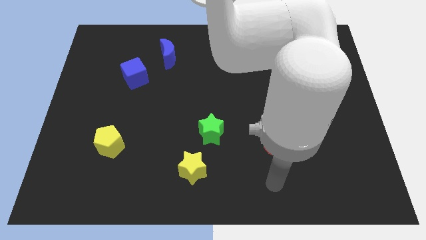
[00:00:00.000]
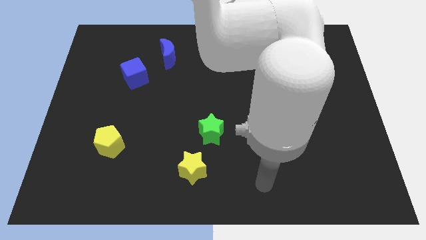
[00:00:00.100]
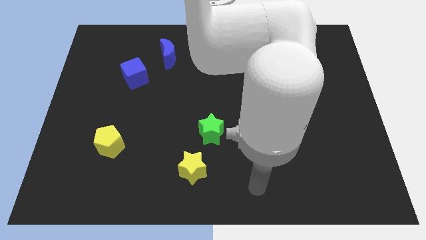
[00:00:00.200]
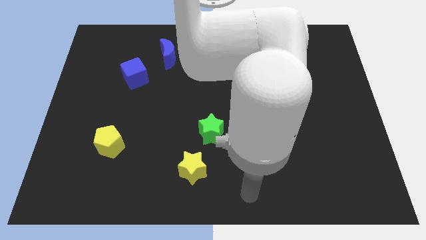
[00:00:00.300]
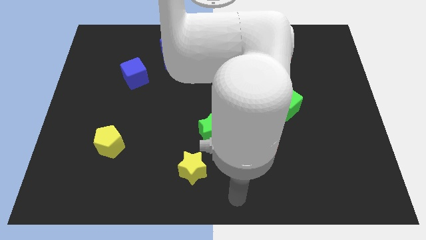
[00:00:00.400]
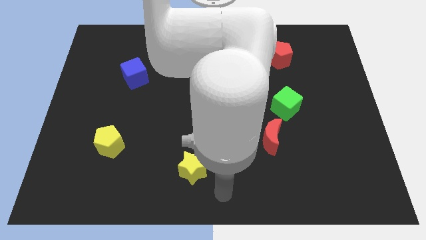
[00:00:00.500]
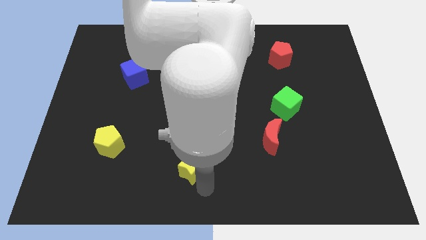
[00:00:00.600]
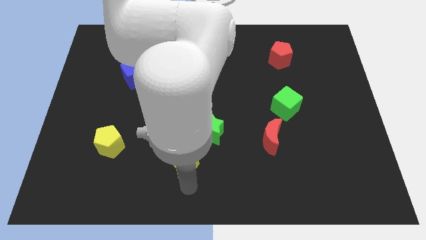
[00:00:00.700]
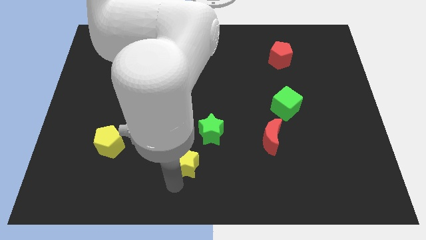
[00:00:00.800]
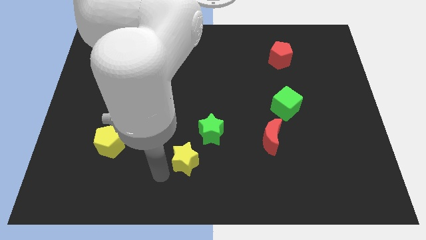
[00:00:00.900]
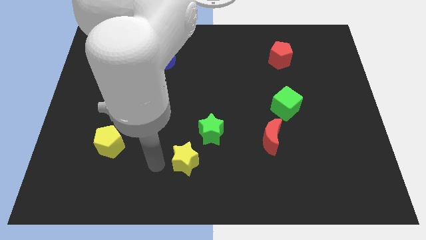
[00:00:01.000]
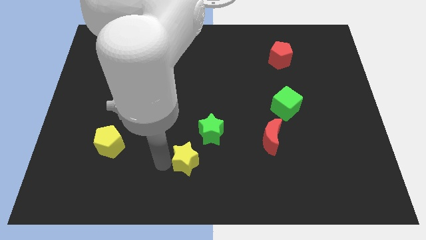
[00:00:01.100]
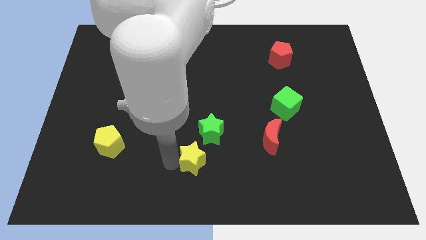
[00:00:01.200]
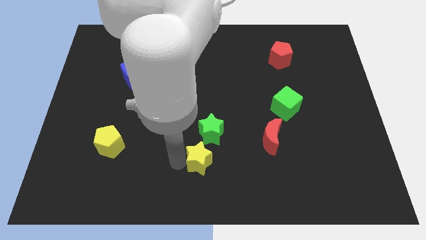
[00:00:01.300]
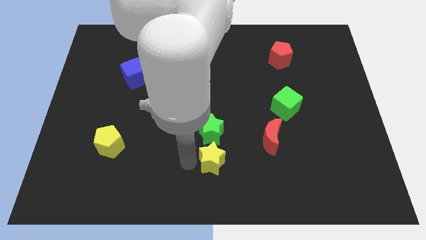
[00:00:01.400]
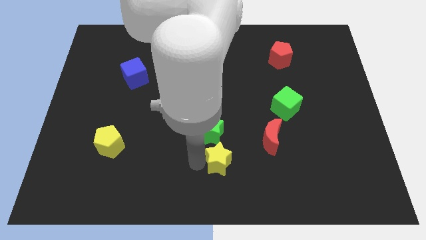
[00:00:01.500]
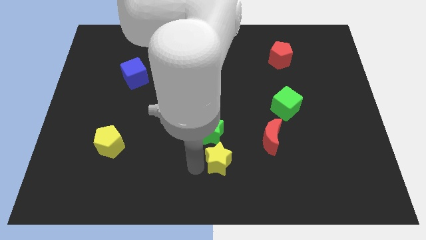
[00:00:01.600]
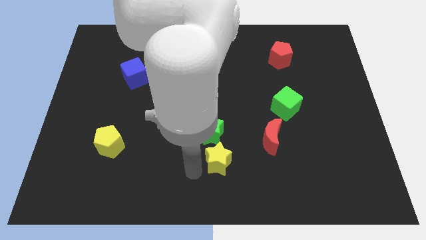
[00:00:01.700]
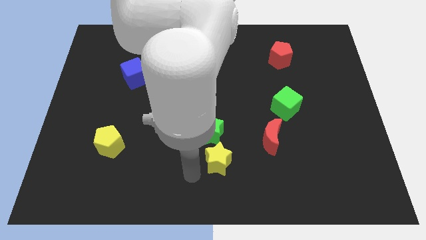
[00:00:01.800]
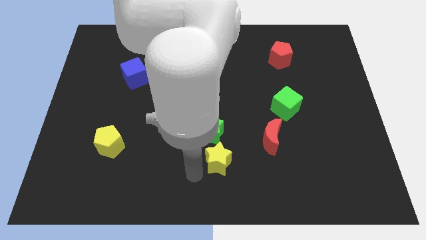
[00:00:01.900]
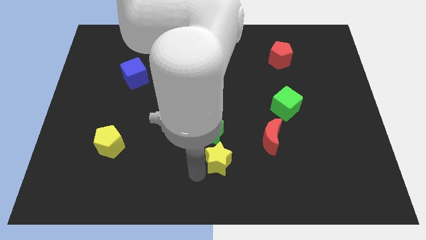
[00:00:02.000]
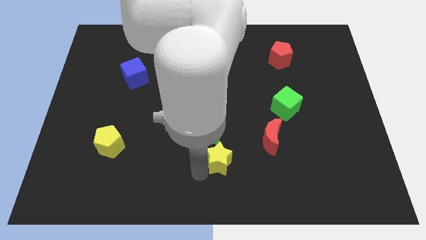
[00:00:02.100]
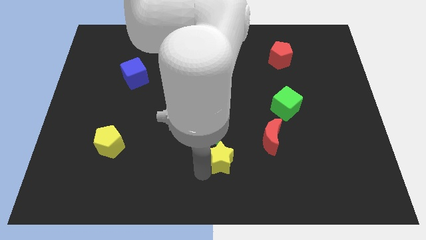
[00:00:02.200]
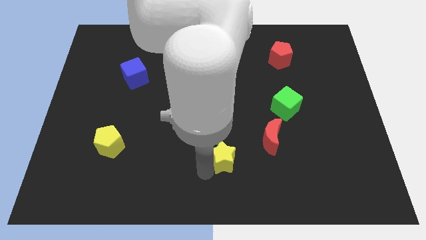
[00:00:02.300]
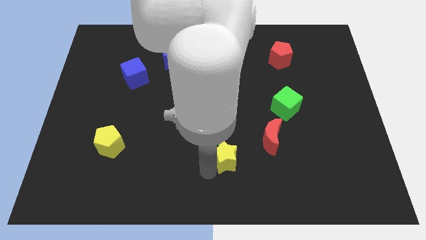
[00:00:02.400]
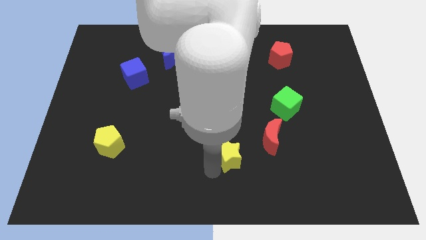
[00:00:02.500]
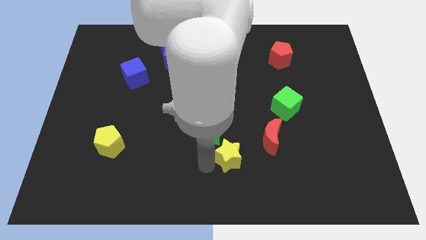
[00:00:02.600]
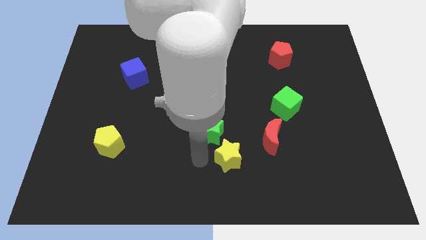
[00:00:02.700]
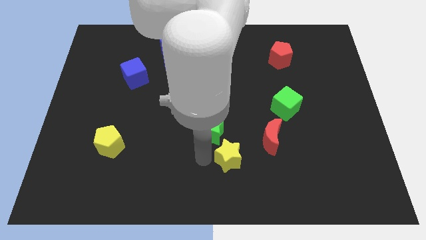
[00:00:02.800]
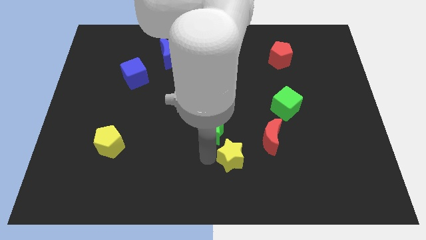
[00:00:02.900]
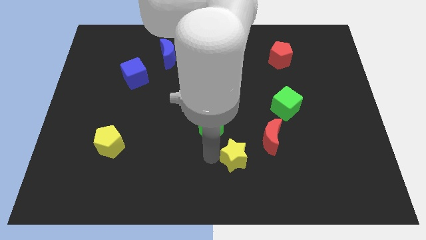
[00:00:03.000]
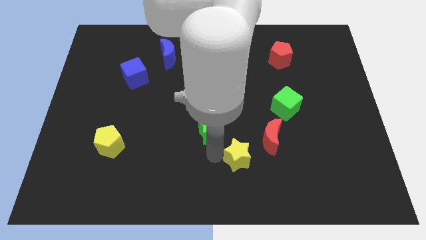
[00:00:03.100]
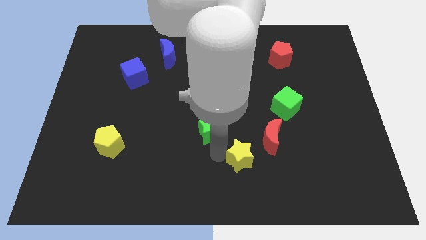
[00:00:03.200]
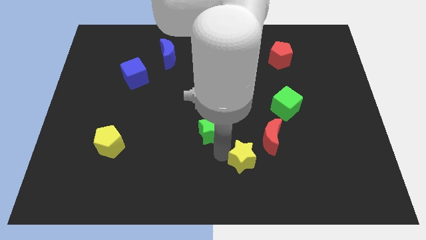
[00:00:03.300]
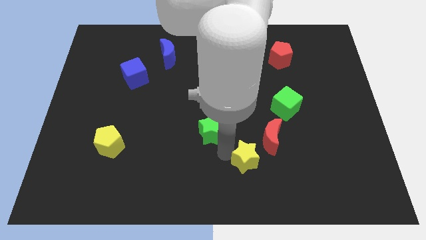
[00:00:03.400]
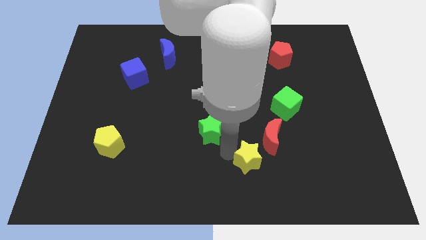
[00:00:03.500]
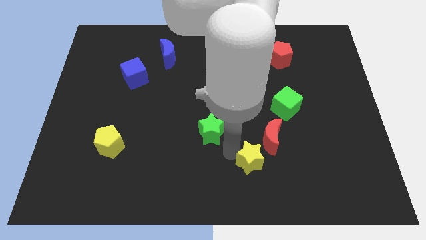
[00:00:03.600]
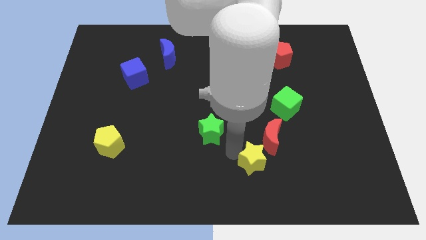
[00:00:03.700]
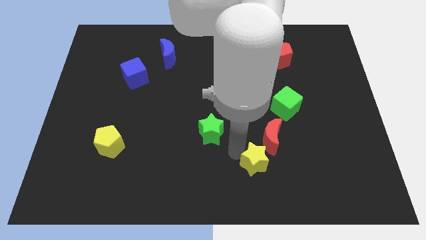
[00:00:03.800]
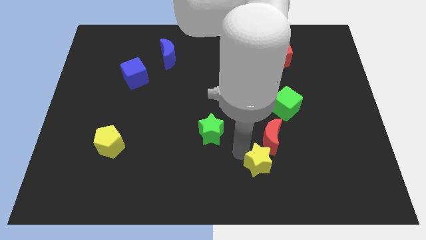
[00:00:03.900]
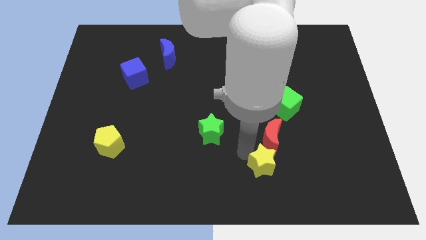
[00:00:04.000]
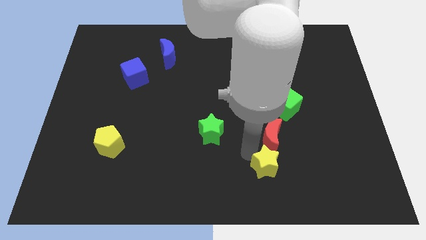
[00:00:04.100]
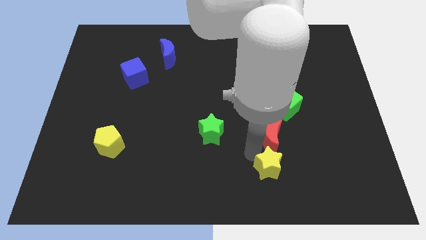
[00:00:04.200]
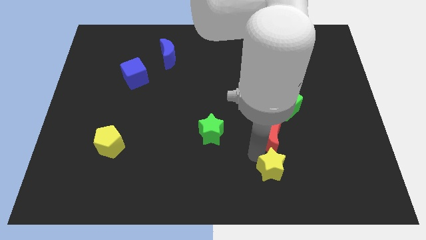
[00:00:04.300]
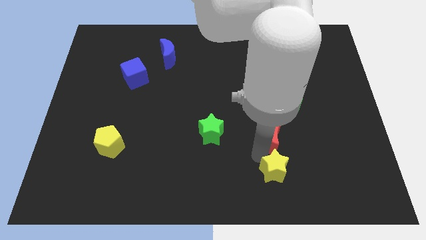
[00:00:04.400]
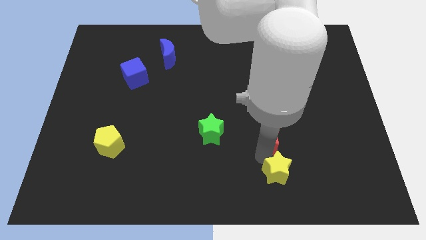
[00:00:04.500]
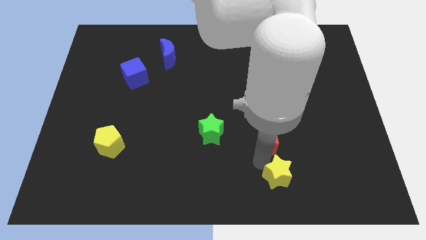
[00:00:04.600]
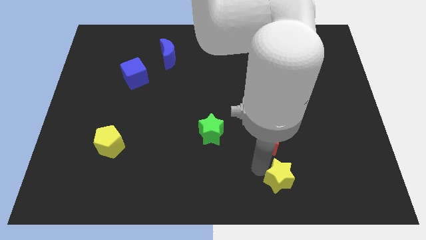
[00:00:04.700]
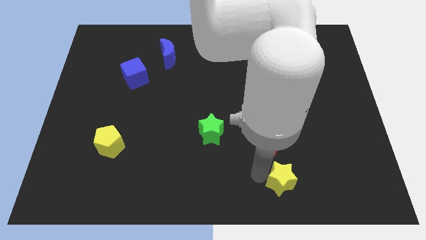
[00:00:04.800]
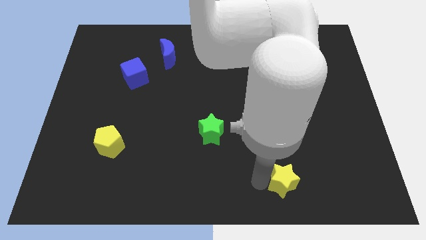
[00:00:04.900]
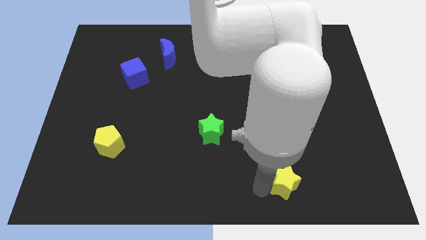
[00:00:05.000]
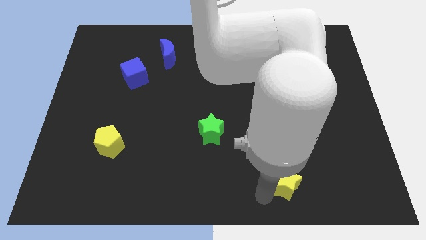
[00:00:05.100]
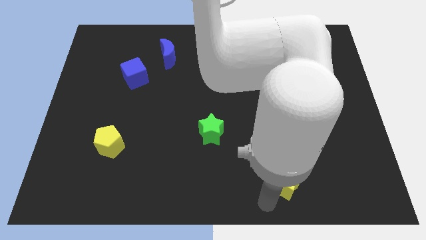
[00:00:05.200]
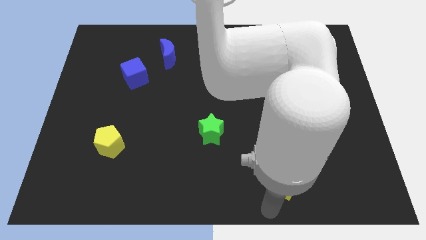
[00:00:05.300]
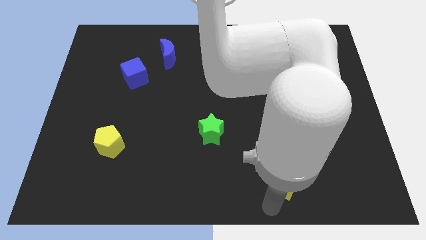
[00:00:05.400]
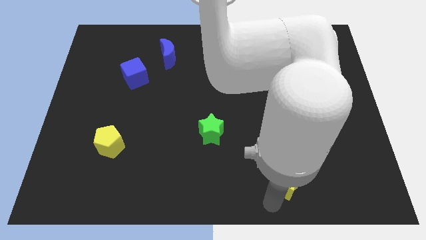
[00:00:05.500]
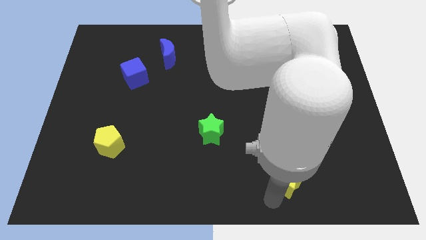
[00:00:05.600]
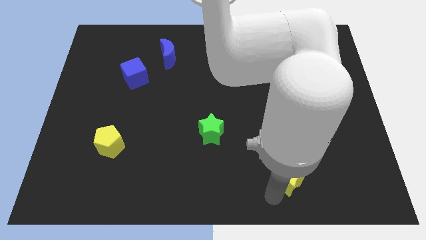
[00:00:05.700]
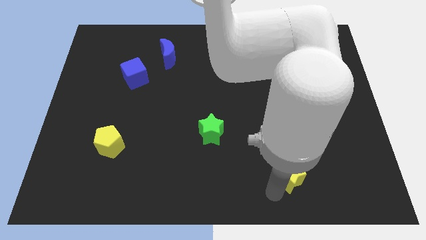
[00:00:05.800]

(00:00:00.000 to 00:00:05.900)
move the yellow star diagonally down and to the right of the red moon
